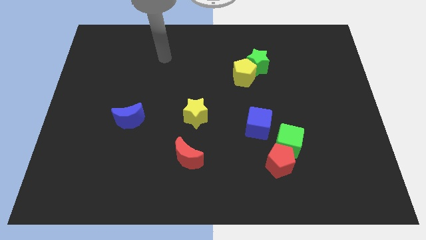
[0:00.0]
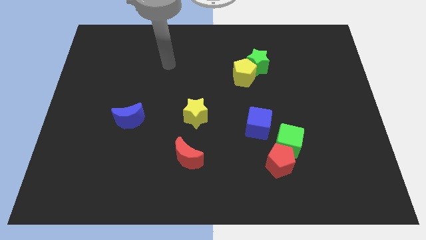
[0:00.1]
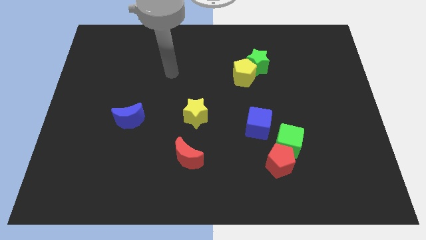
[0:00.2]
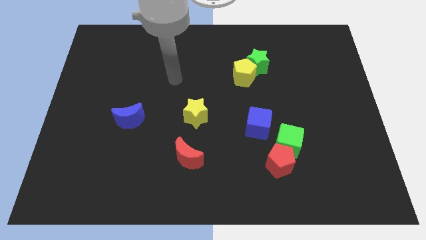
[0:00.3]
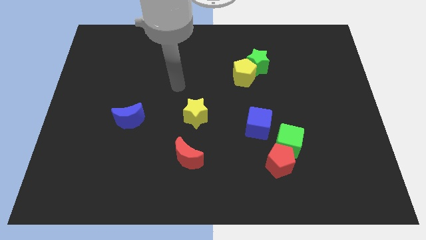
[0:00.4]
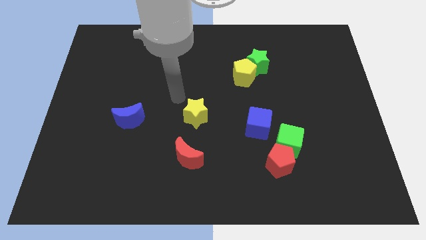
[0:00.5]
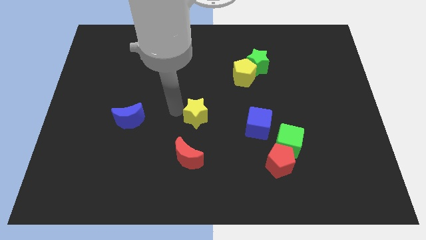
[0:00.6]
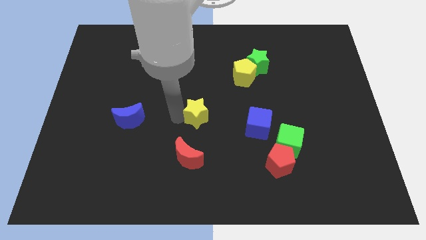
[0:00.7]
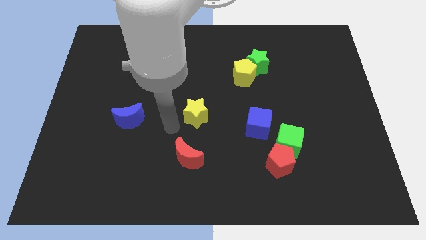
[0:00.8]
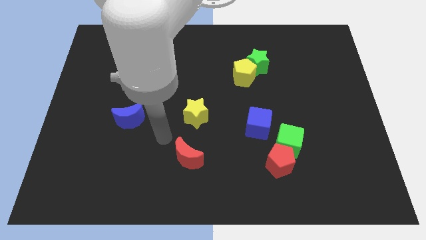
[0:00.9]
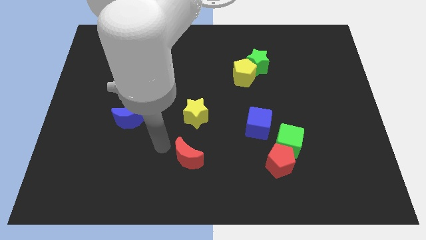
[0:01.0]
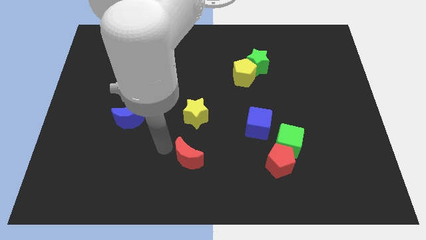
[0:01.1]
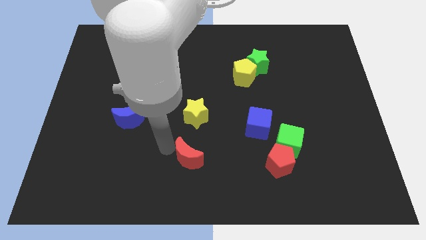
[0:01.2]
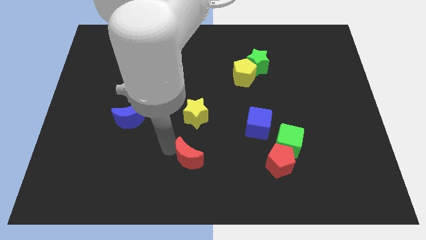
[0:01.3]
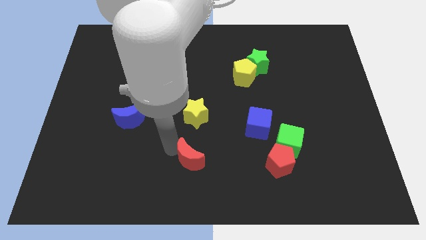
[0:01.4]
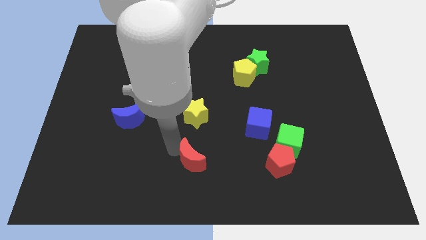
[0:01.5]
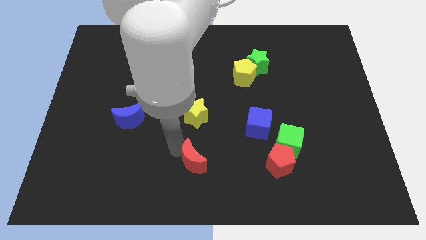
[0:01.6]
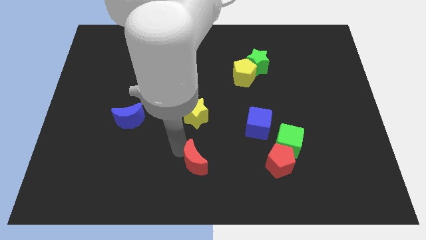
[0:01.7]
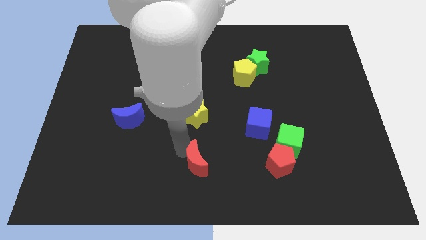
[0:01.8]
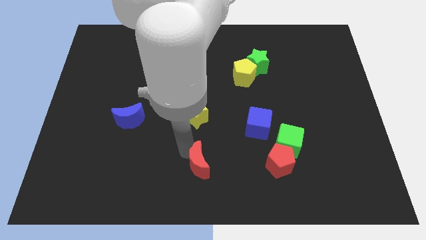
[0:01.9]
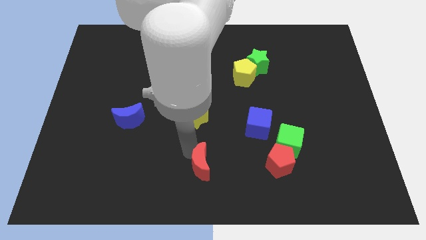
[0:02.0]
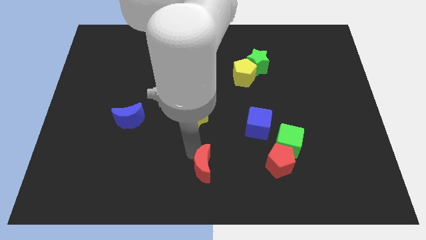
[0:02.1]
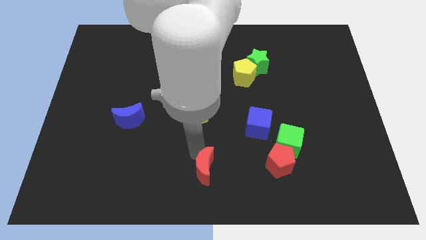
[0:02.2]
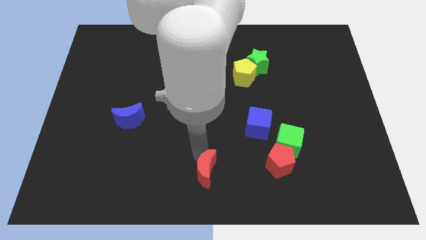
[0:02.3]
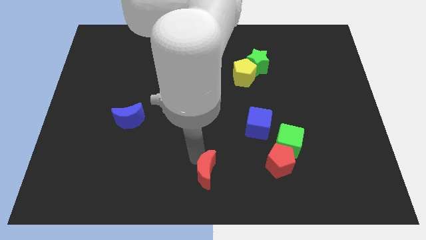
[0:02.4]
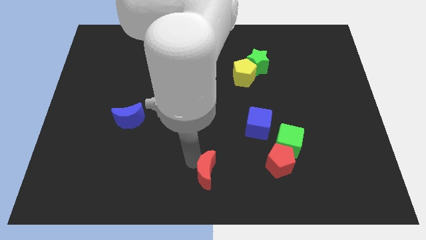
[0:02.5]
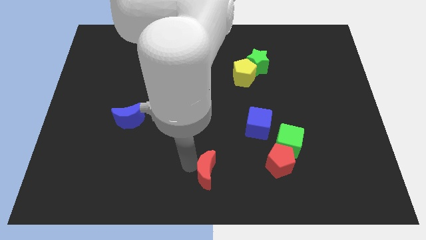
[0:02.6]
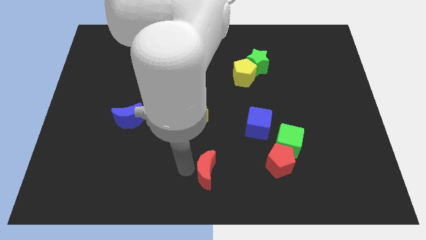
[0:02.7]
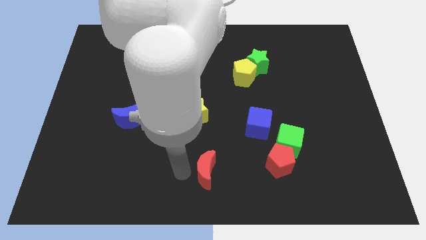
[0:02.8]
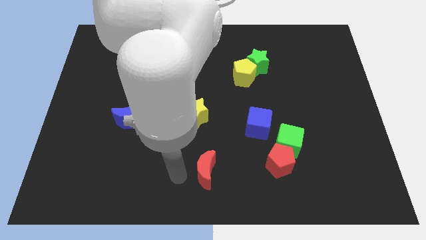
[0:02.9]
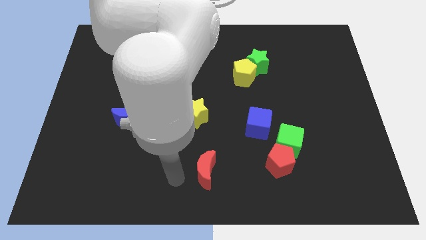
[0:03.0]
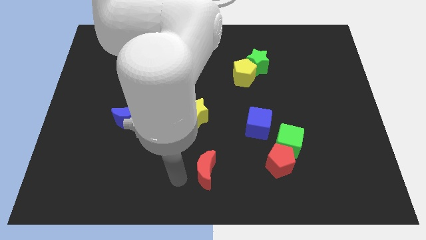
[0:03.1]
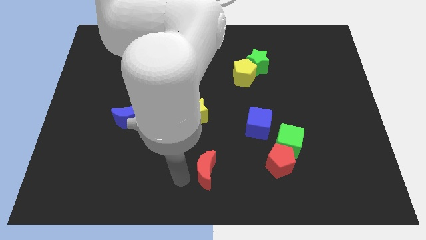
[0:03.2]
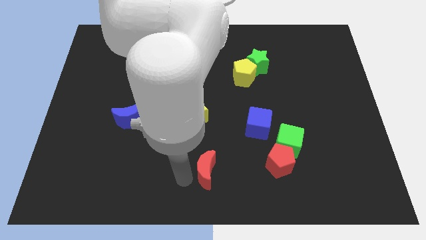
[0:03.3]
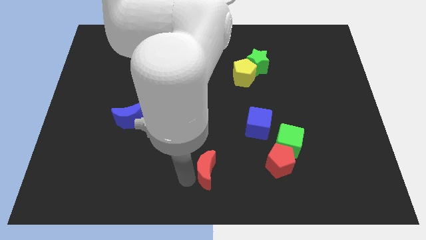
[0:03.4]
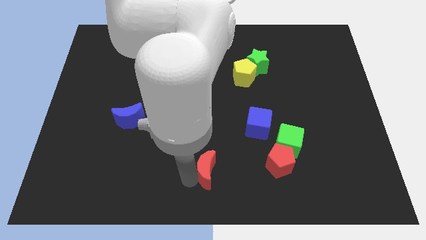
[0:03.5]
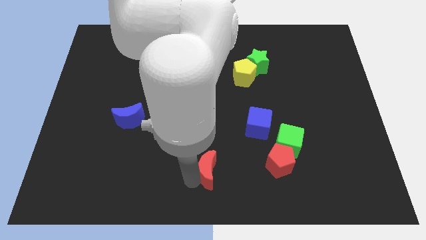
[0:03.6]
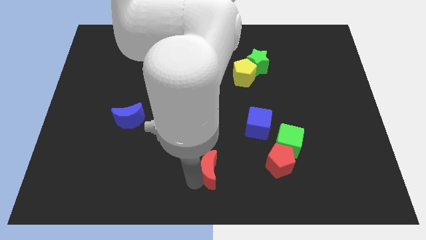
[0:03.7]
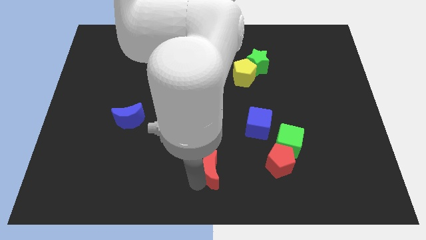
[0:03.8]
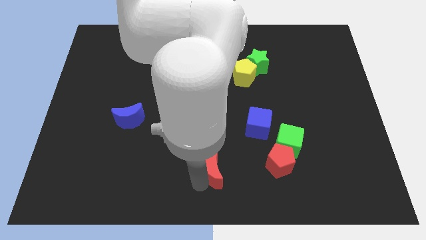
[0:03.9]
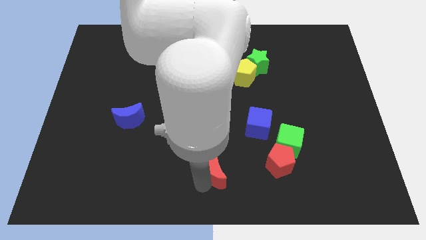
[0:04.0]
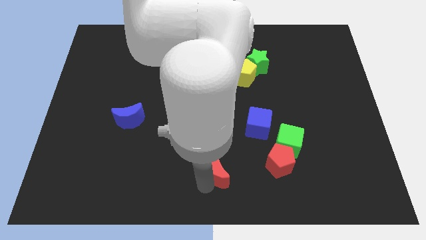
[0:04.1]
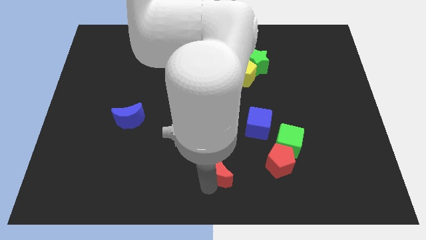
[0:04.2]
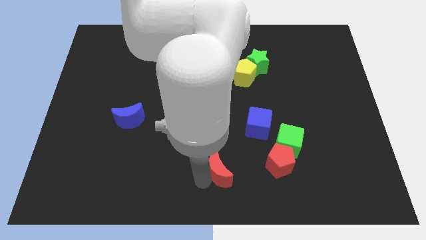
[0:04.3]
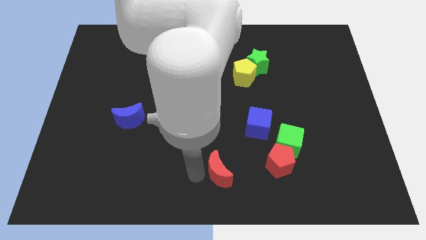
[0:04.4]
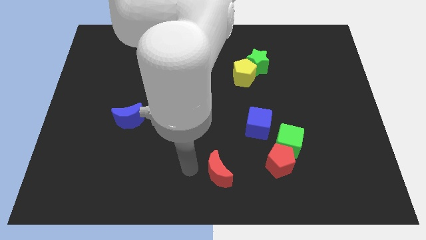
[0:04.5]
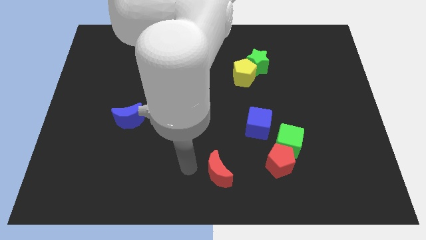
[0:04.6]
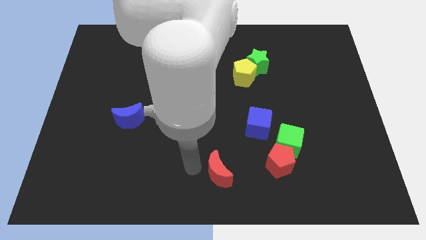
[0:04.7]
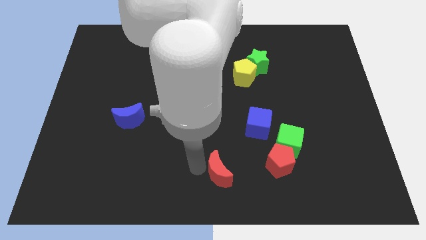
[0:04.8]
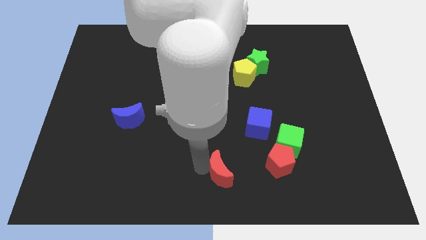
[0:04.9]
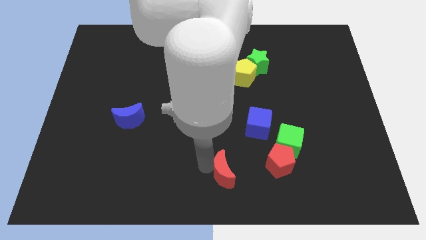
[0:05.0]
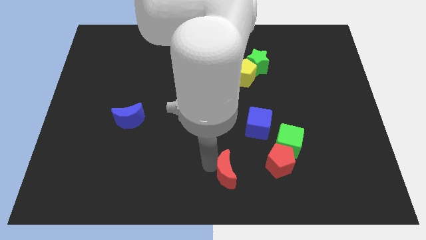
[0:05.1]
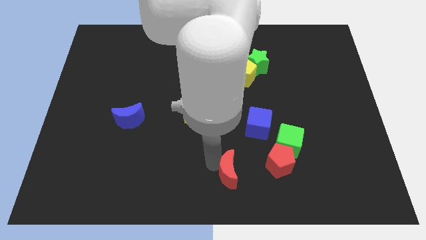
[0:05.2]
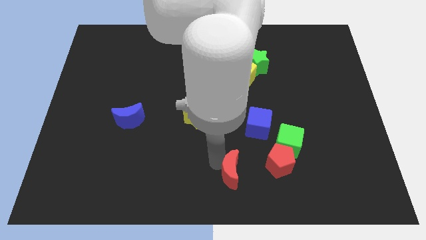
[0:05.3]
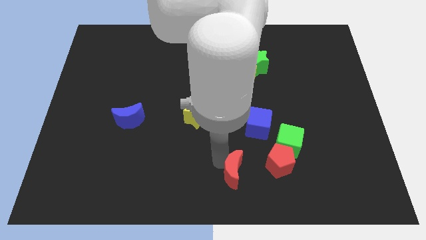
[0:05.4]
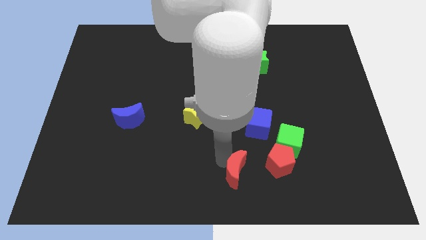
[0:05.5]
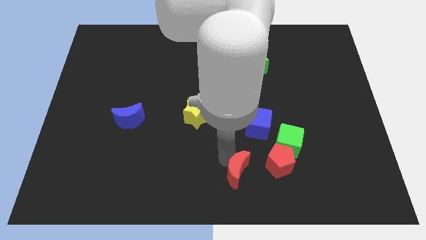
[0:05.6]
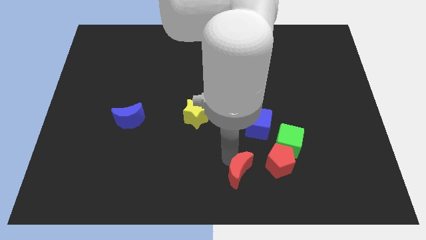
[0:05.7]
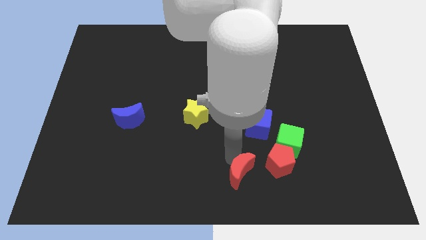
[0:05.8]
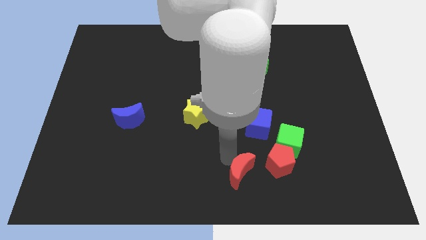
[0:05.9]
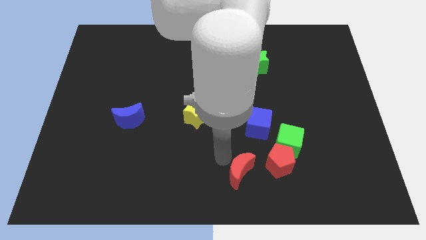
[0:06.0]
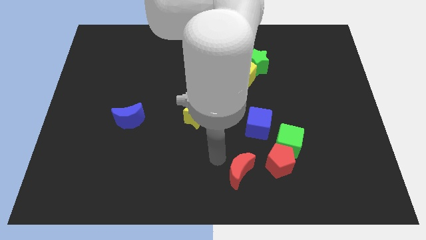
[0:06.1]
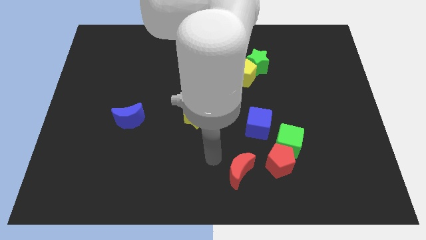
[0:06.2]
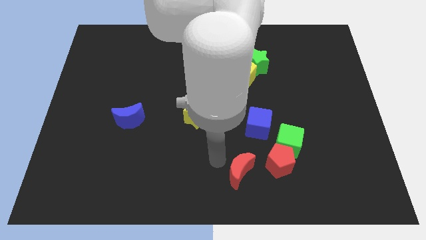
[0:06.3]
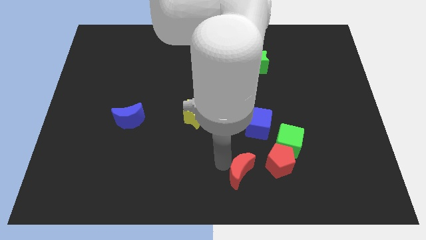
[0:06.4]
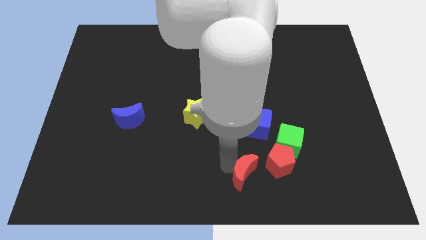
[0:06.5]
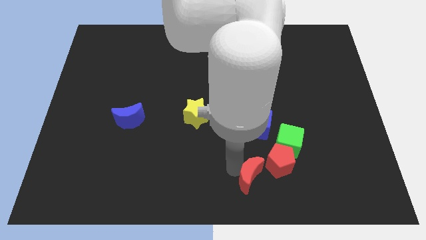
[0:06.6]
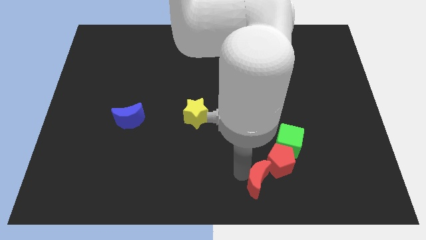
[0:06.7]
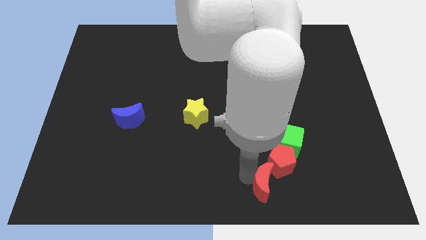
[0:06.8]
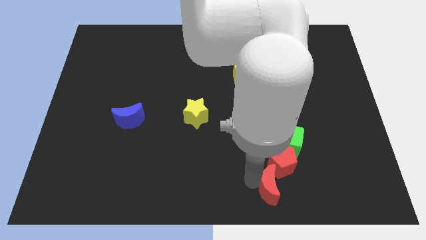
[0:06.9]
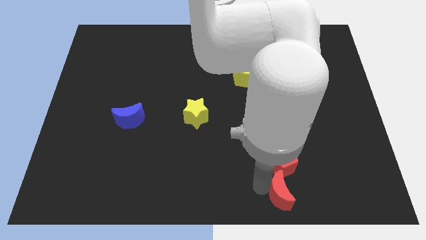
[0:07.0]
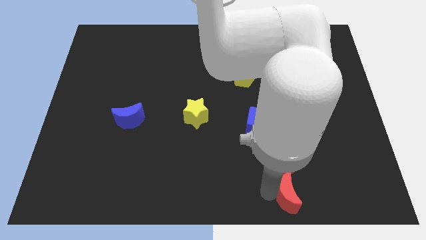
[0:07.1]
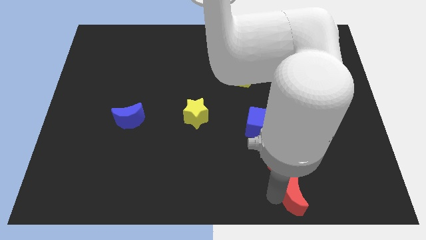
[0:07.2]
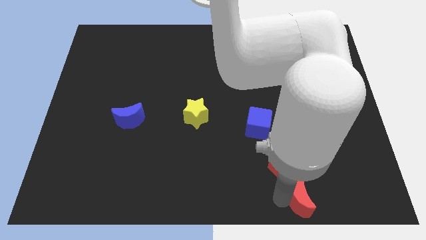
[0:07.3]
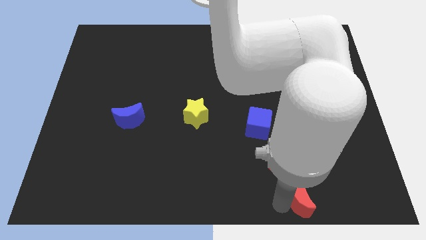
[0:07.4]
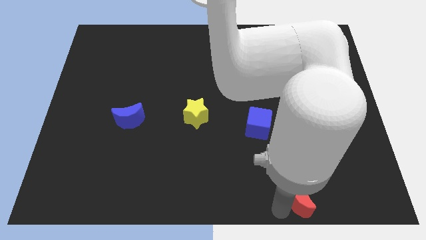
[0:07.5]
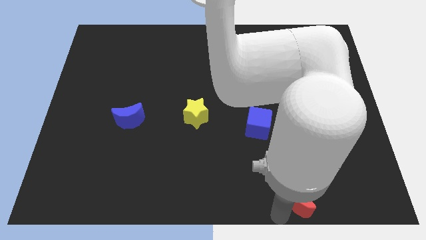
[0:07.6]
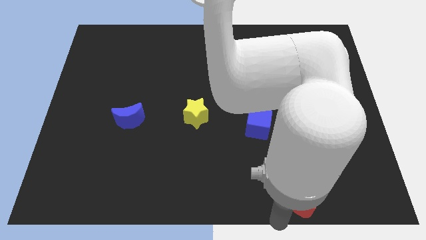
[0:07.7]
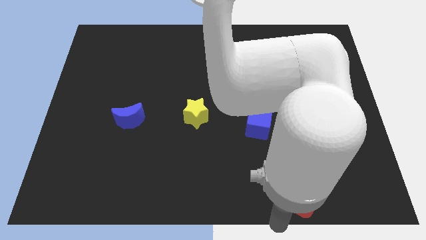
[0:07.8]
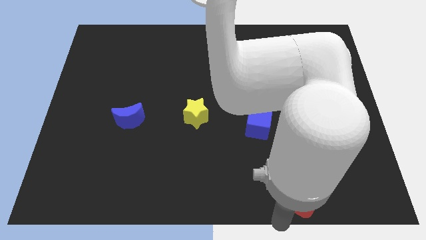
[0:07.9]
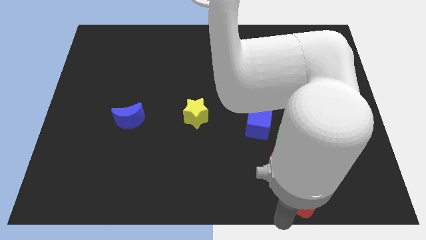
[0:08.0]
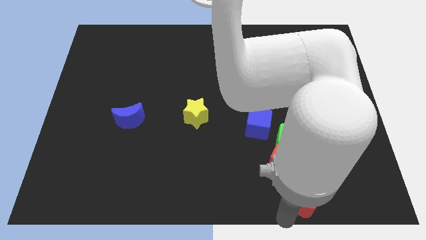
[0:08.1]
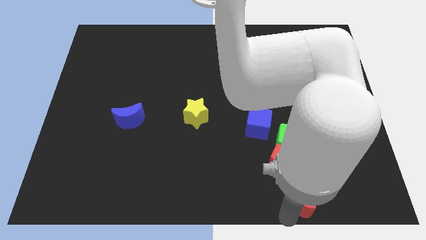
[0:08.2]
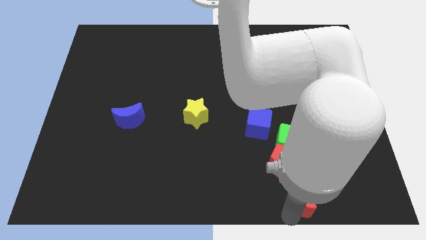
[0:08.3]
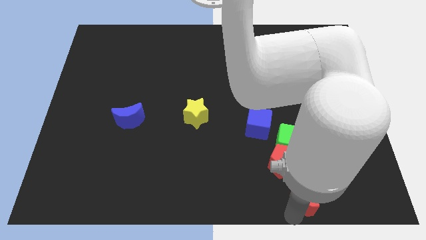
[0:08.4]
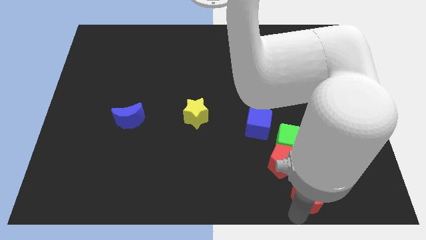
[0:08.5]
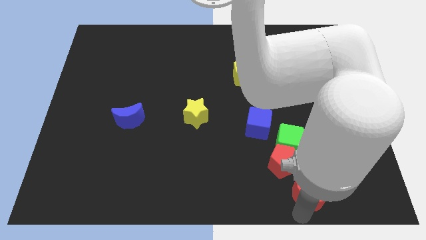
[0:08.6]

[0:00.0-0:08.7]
push the red moon to the right
